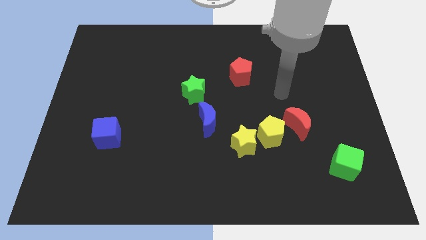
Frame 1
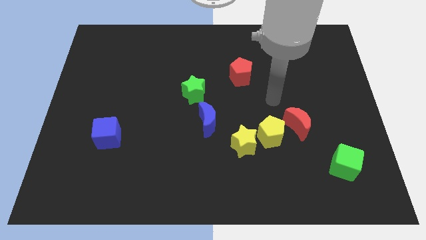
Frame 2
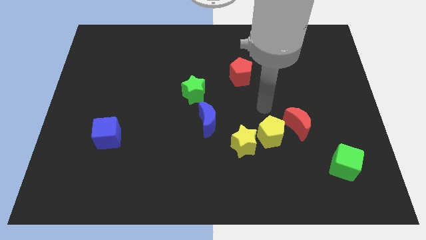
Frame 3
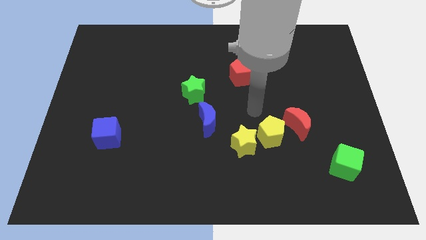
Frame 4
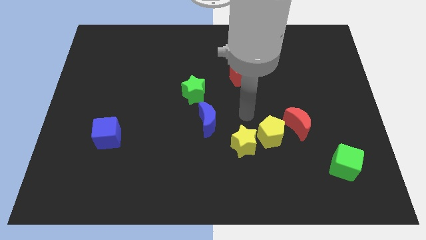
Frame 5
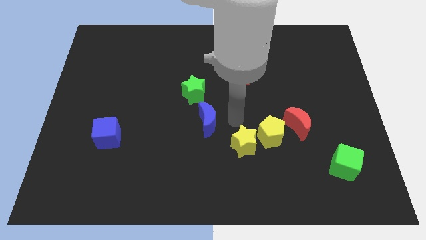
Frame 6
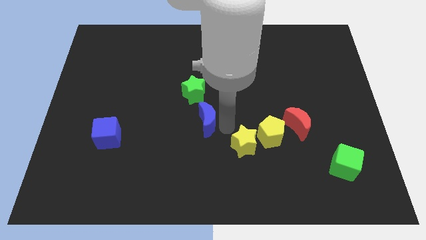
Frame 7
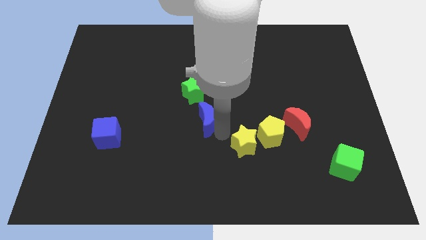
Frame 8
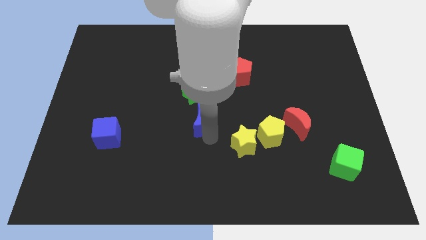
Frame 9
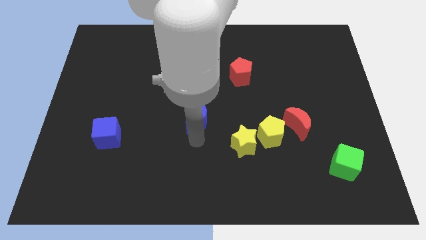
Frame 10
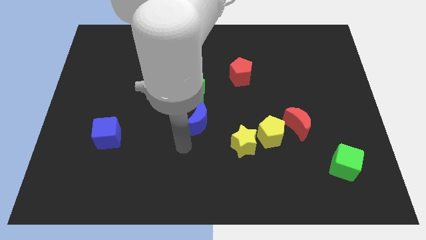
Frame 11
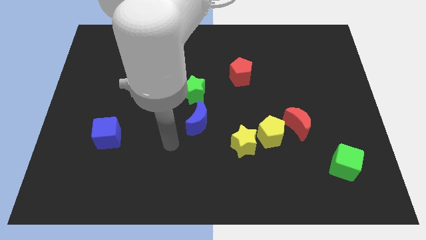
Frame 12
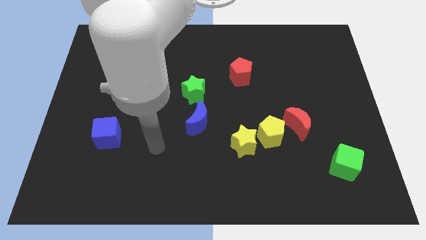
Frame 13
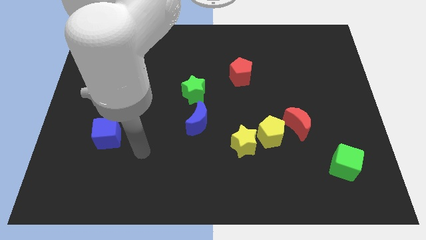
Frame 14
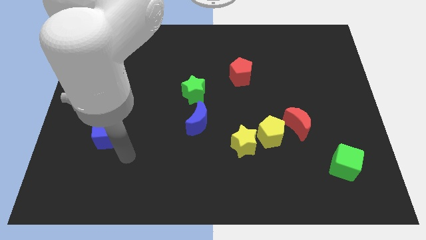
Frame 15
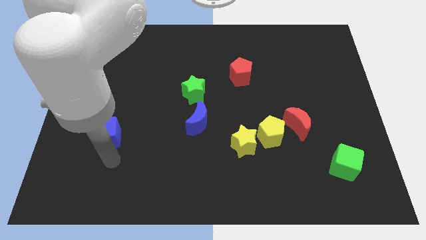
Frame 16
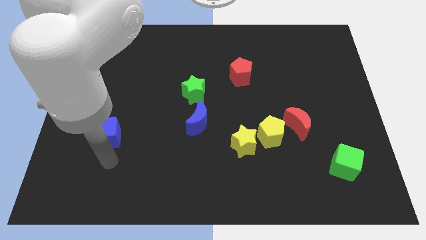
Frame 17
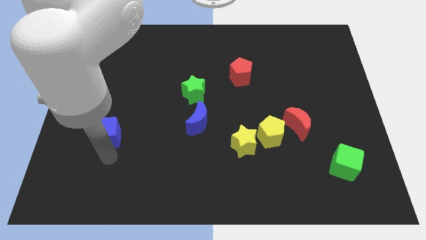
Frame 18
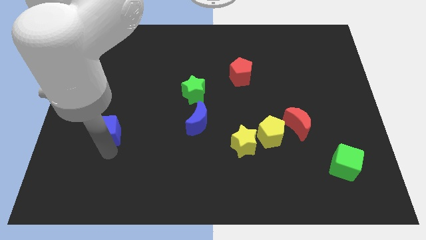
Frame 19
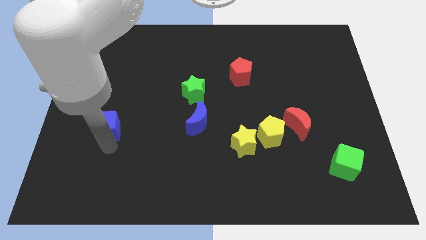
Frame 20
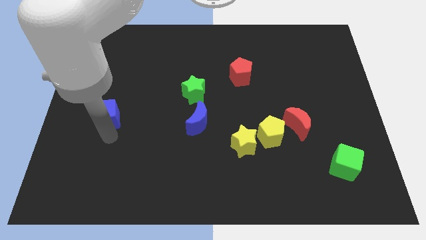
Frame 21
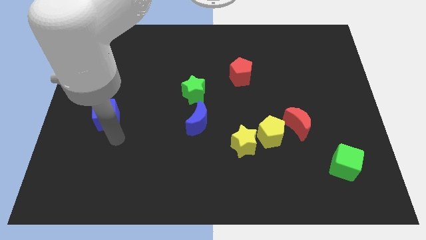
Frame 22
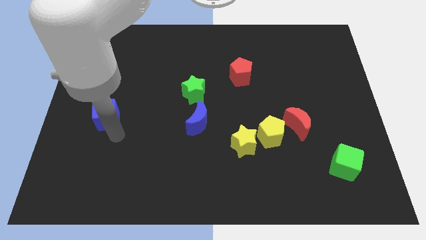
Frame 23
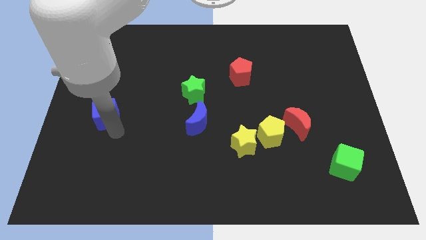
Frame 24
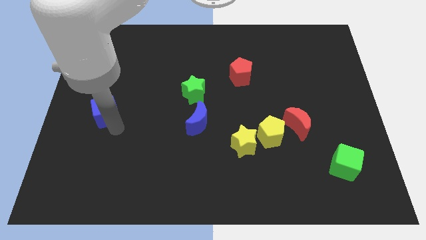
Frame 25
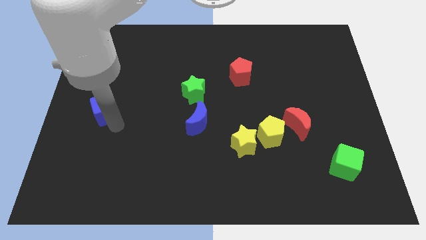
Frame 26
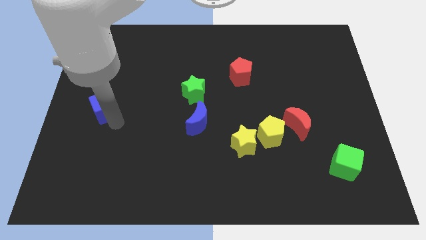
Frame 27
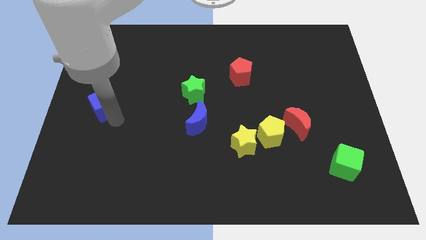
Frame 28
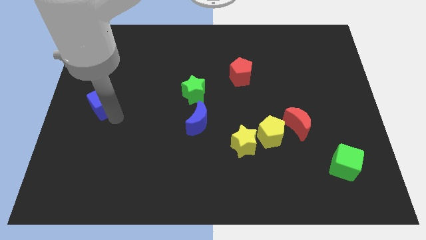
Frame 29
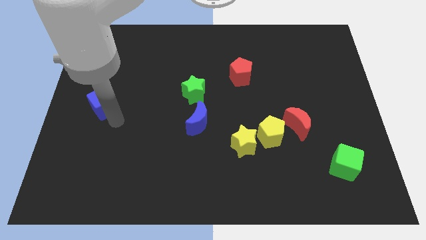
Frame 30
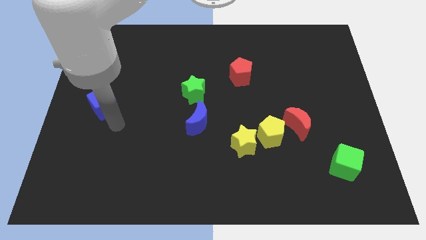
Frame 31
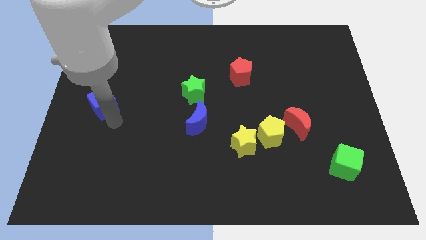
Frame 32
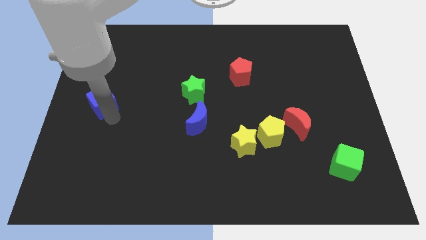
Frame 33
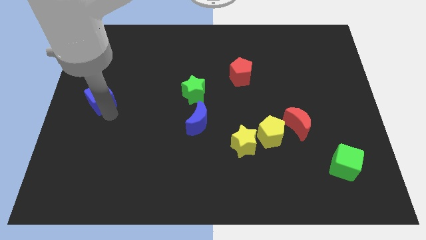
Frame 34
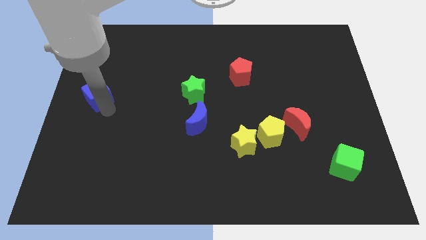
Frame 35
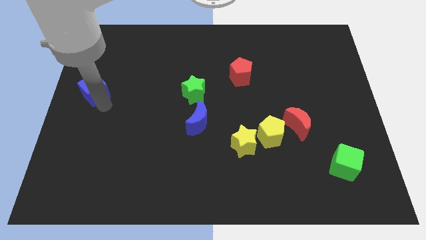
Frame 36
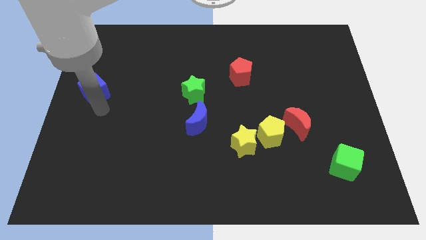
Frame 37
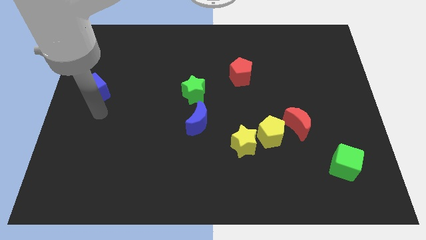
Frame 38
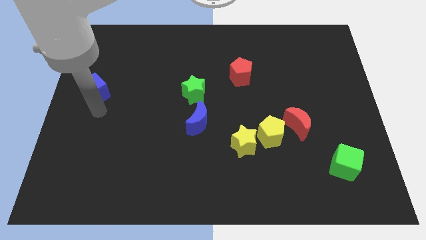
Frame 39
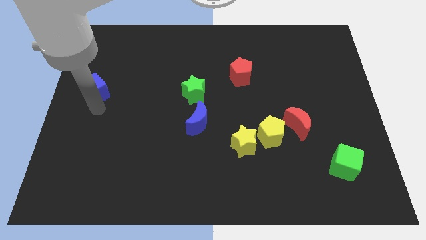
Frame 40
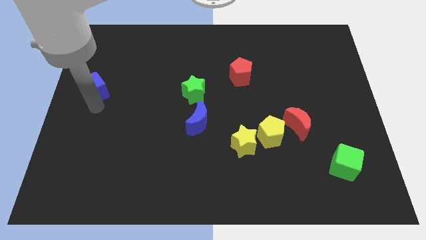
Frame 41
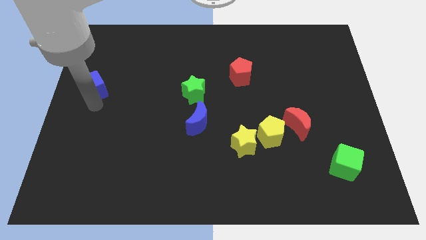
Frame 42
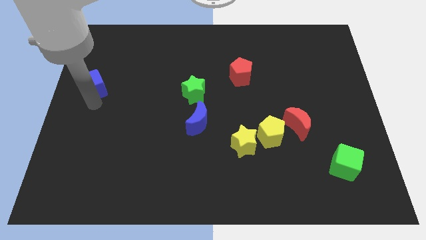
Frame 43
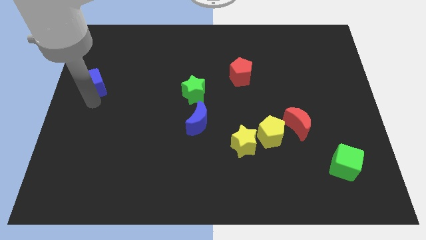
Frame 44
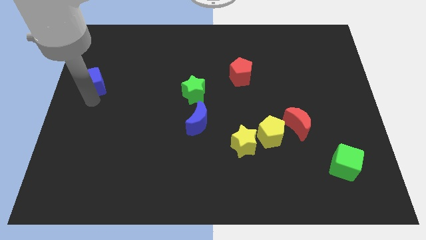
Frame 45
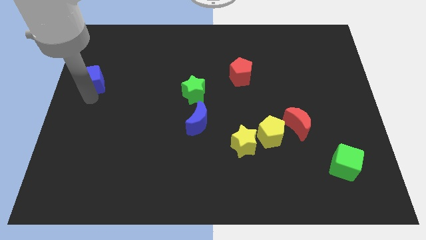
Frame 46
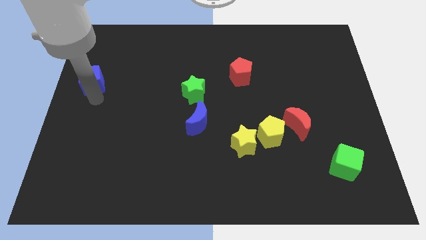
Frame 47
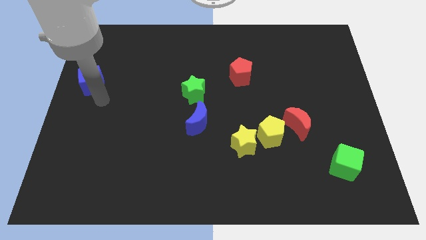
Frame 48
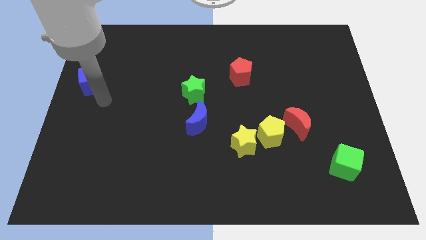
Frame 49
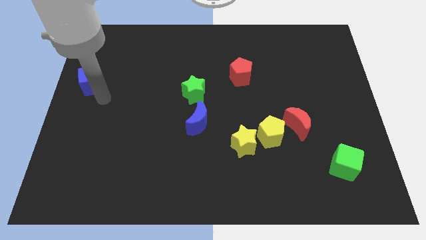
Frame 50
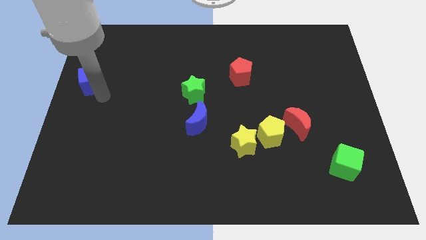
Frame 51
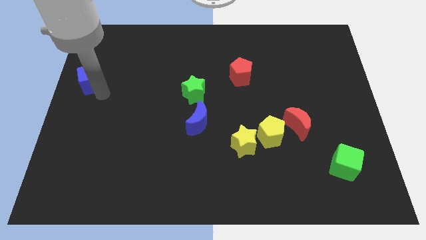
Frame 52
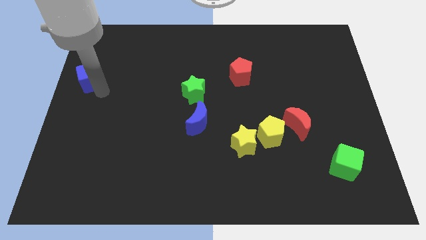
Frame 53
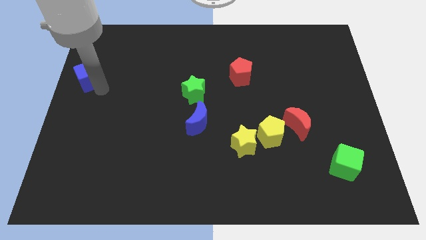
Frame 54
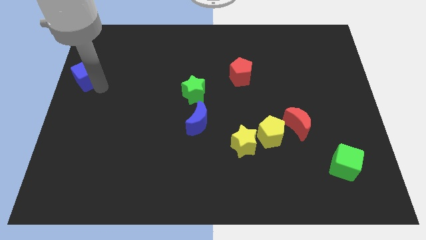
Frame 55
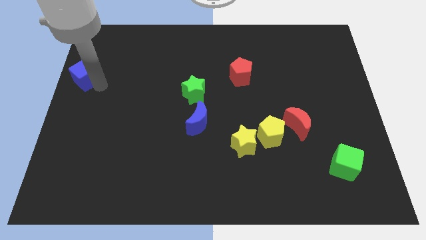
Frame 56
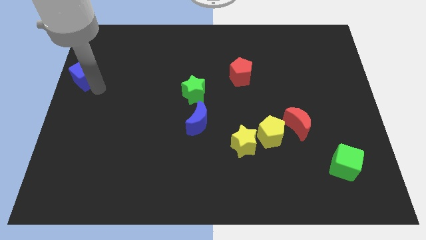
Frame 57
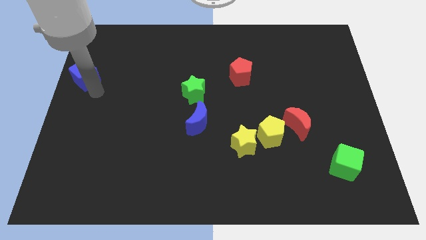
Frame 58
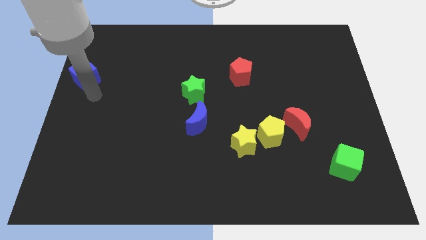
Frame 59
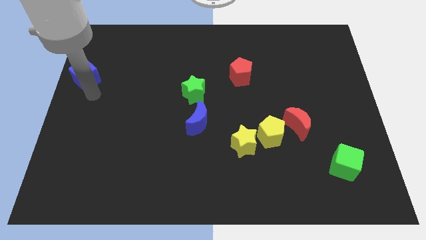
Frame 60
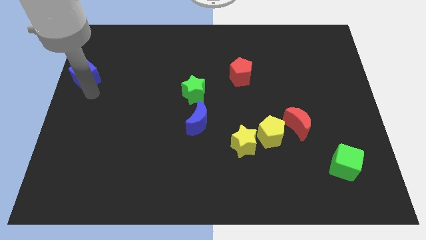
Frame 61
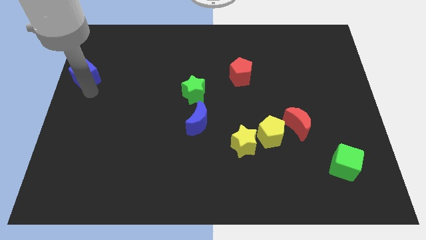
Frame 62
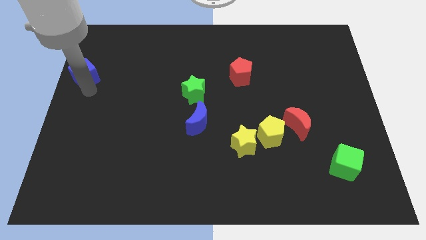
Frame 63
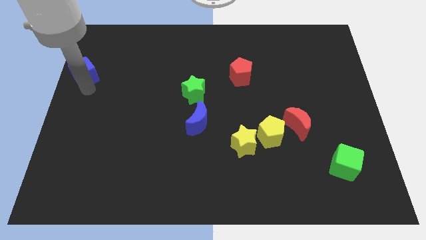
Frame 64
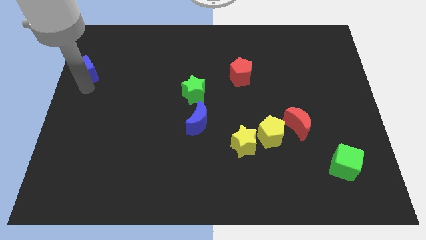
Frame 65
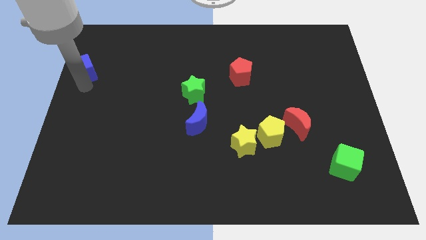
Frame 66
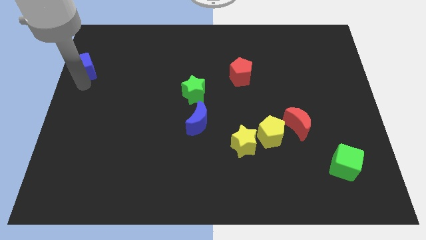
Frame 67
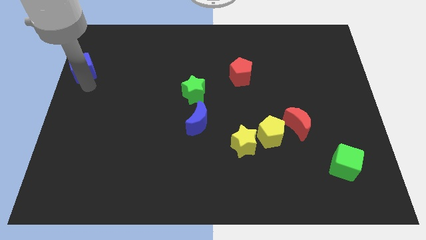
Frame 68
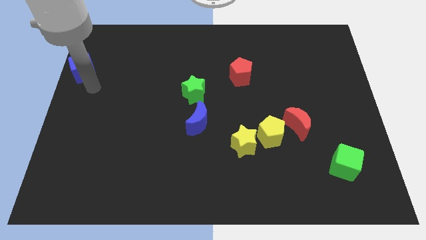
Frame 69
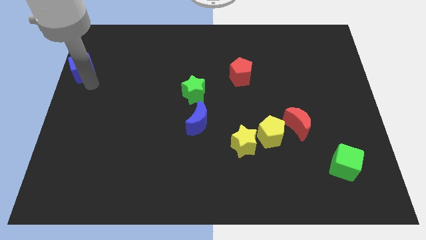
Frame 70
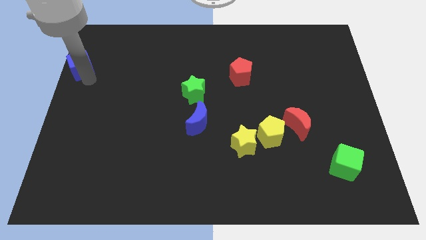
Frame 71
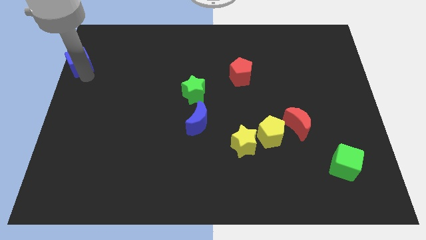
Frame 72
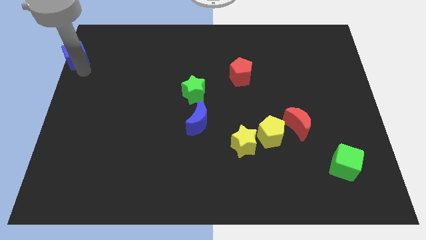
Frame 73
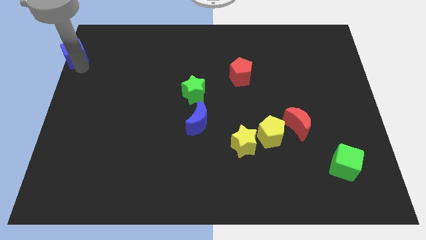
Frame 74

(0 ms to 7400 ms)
push the blue cube to the top left of the board

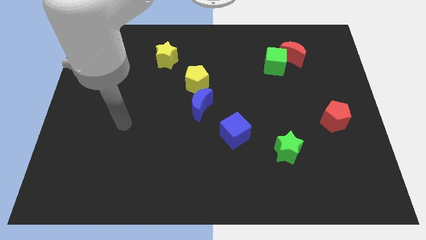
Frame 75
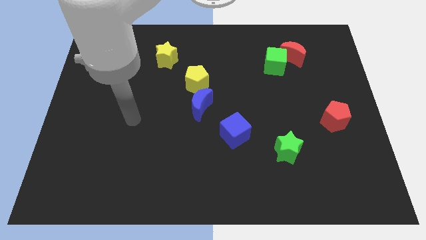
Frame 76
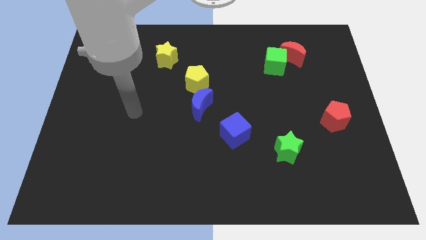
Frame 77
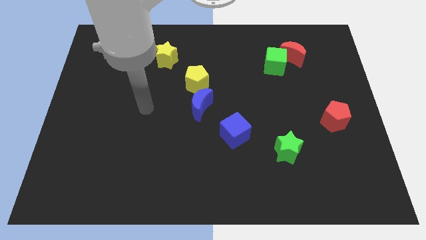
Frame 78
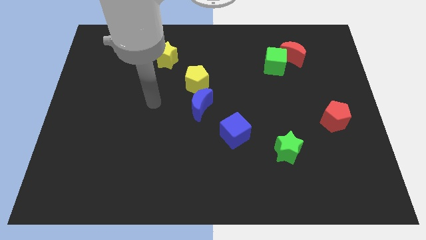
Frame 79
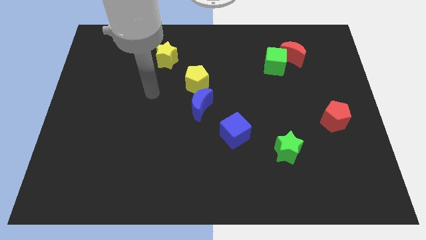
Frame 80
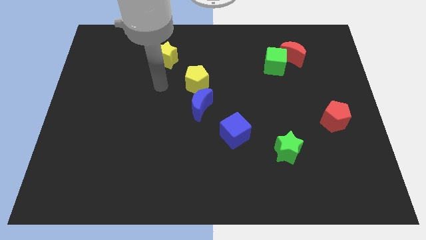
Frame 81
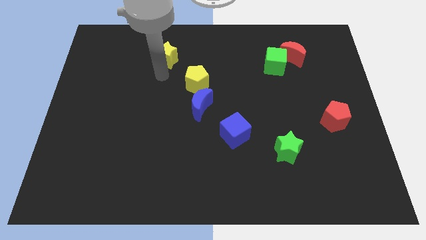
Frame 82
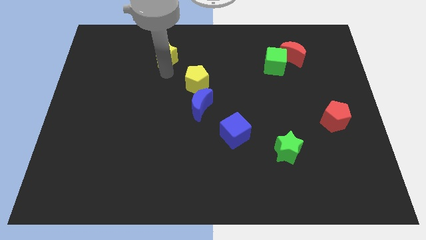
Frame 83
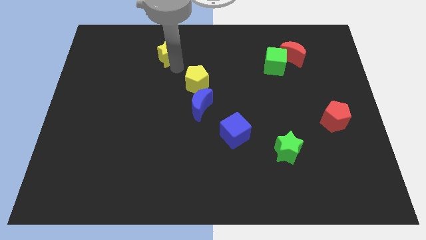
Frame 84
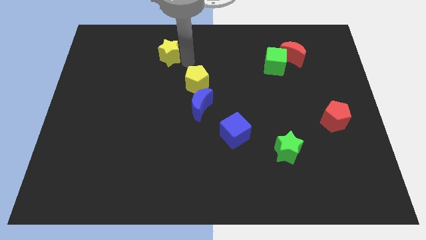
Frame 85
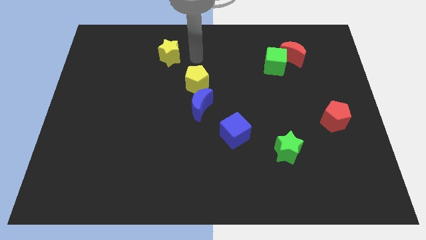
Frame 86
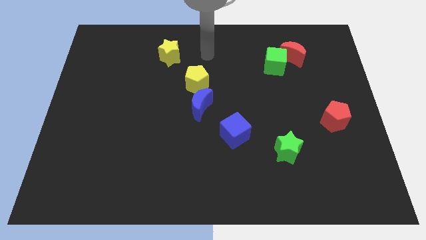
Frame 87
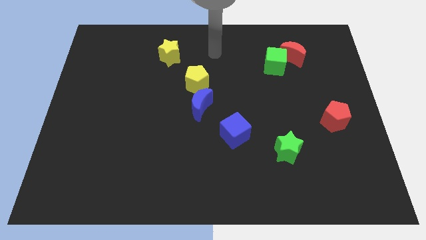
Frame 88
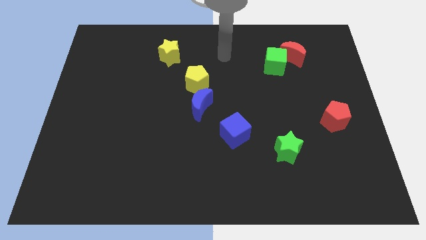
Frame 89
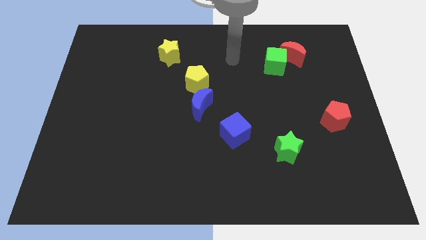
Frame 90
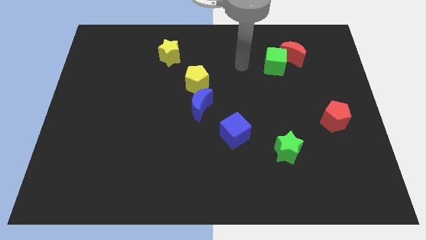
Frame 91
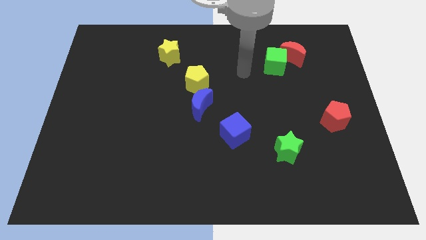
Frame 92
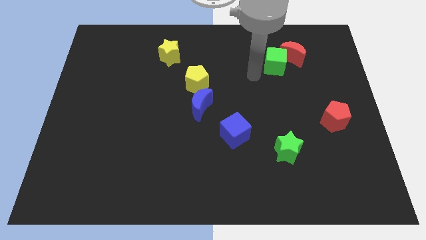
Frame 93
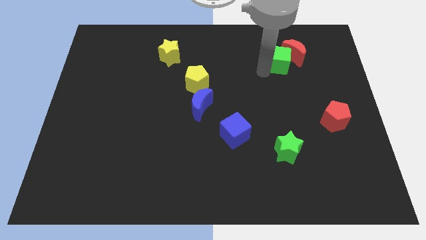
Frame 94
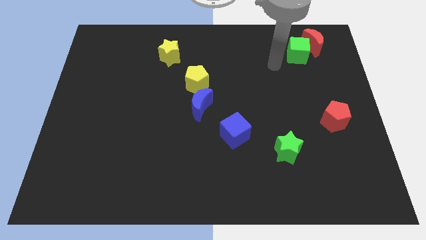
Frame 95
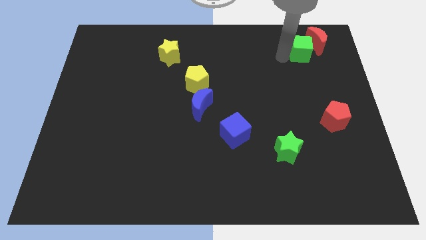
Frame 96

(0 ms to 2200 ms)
push the red moon to the top right
